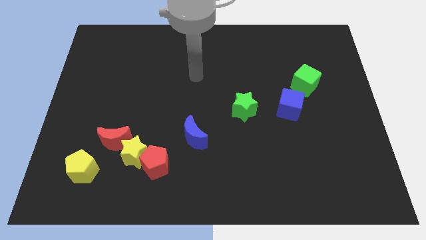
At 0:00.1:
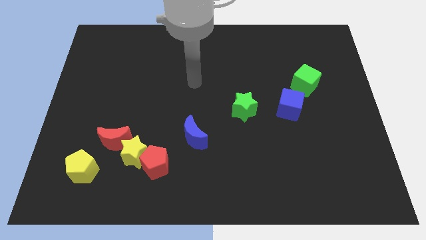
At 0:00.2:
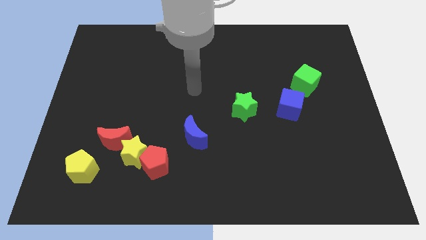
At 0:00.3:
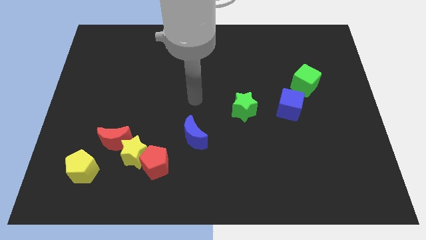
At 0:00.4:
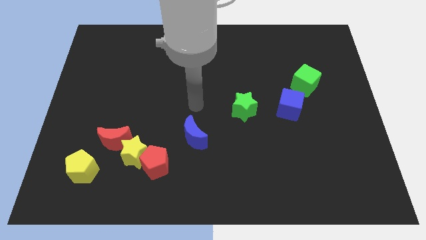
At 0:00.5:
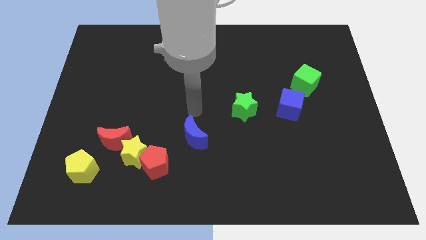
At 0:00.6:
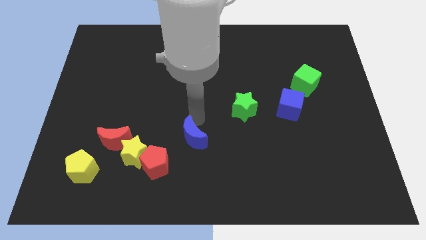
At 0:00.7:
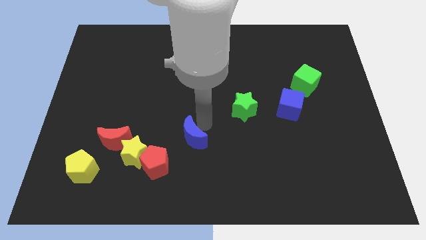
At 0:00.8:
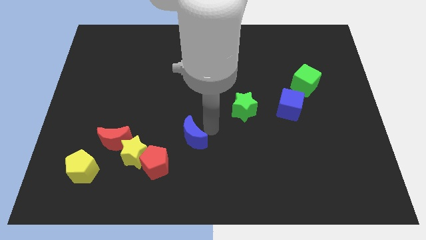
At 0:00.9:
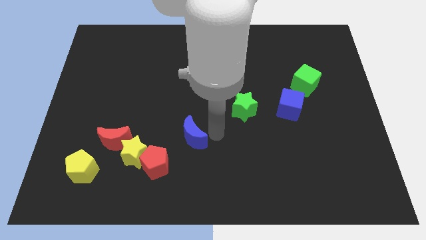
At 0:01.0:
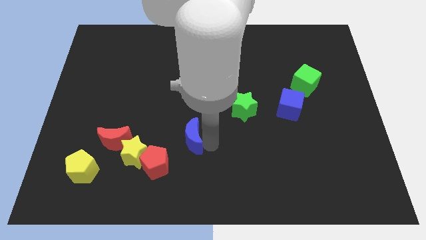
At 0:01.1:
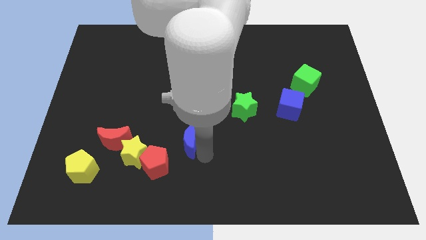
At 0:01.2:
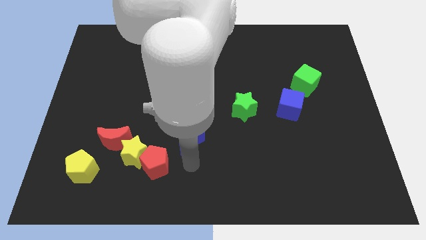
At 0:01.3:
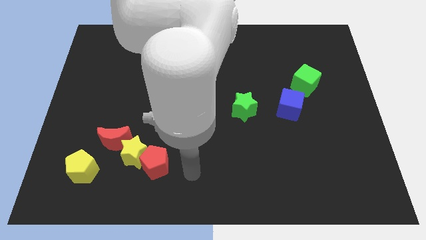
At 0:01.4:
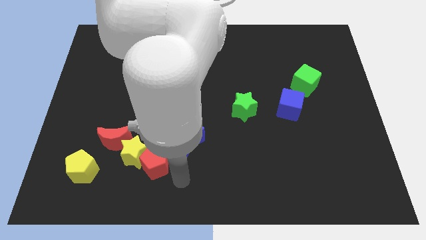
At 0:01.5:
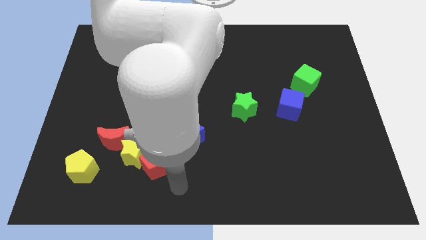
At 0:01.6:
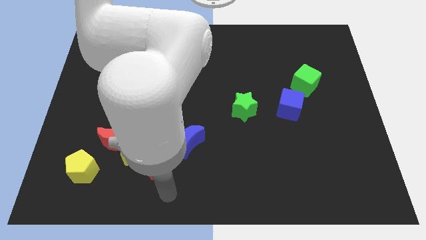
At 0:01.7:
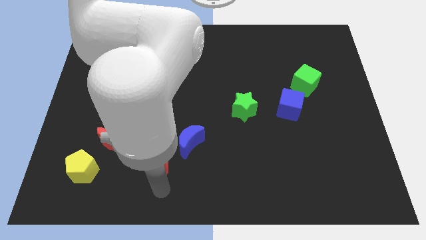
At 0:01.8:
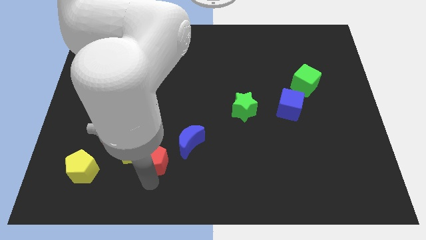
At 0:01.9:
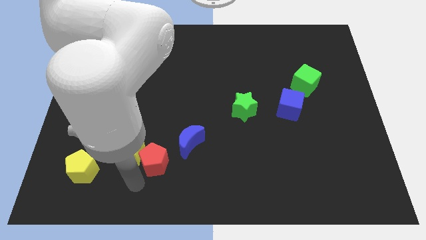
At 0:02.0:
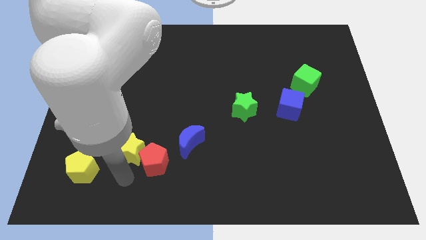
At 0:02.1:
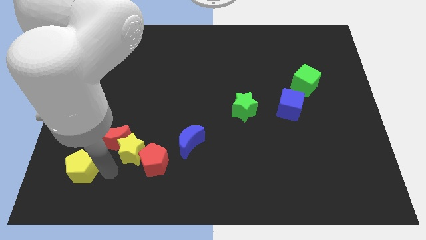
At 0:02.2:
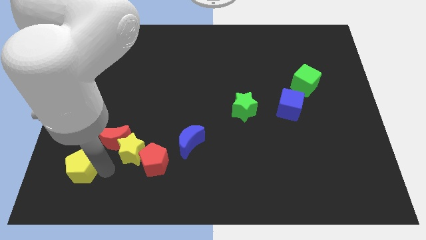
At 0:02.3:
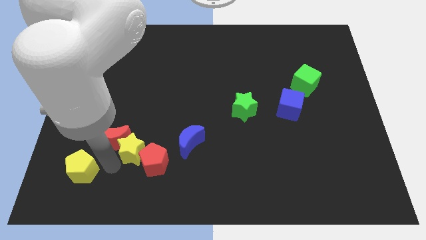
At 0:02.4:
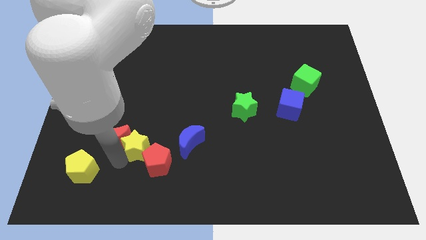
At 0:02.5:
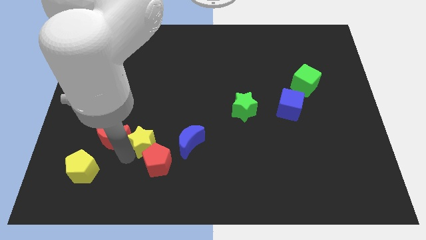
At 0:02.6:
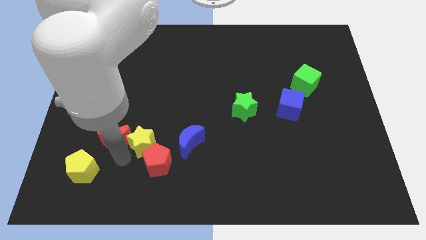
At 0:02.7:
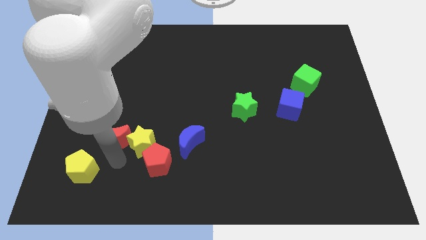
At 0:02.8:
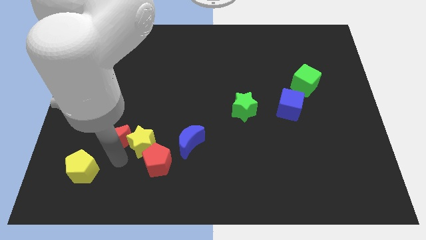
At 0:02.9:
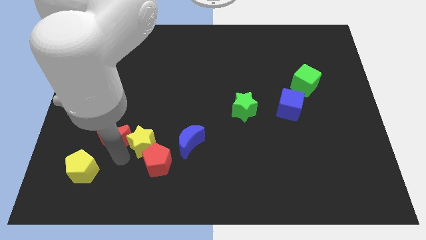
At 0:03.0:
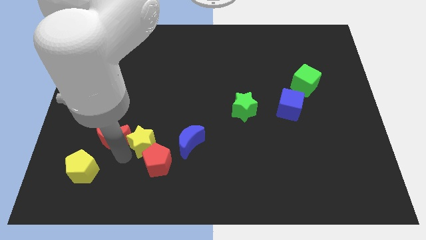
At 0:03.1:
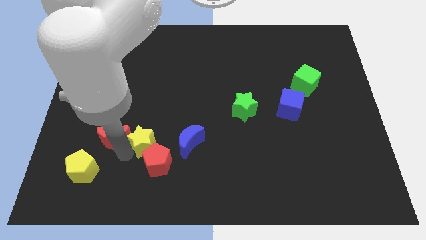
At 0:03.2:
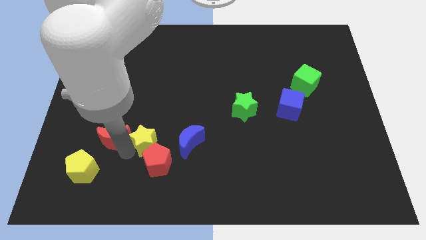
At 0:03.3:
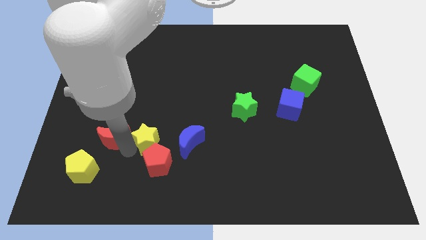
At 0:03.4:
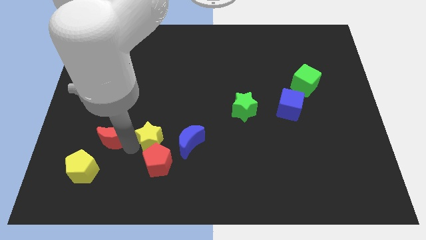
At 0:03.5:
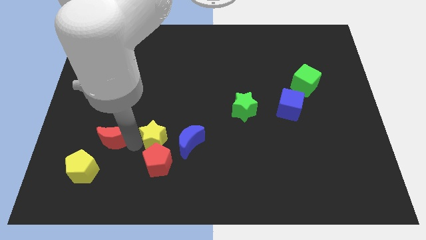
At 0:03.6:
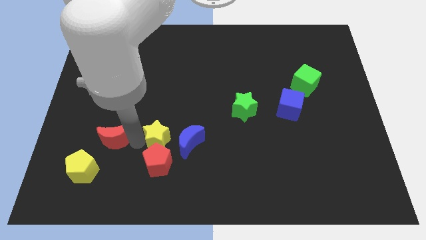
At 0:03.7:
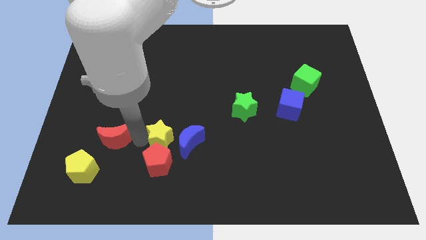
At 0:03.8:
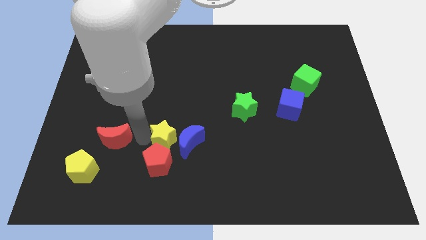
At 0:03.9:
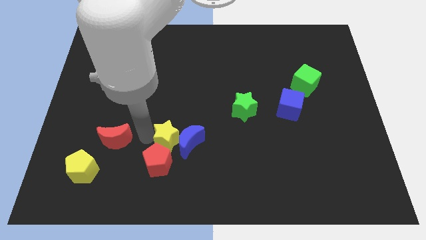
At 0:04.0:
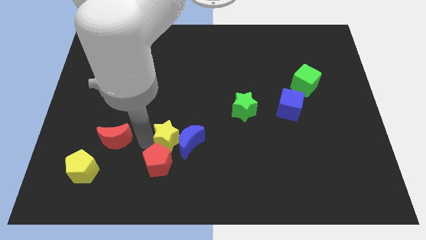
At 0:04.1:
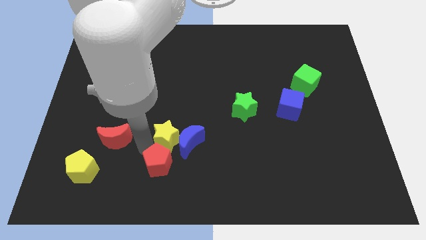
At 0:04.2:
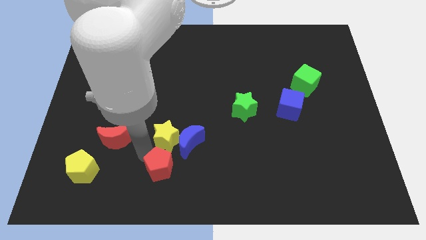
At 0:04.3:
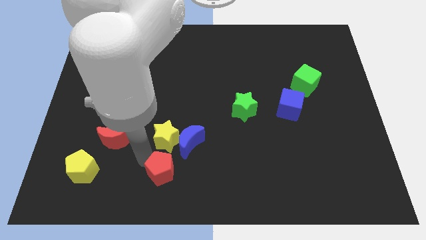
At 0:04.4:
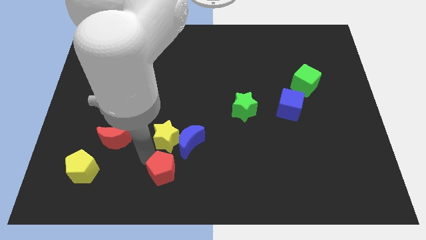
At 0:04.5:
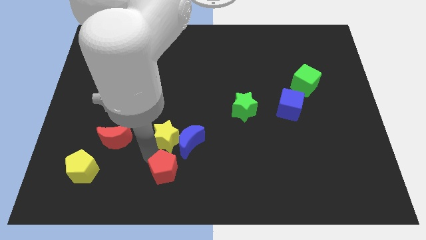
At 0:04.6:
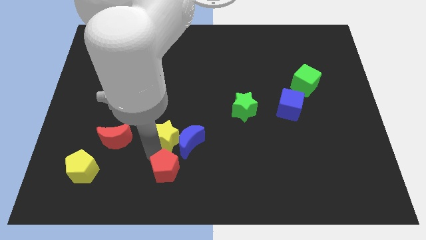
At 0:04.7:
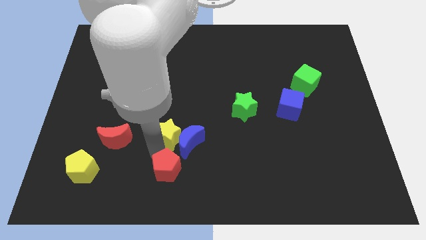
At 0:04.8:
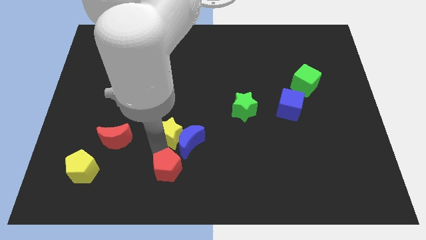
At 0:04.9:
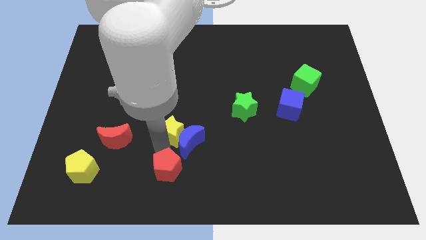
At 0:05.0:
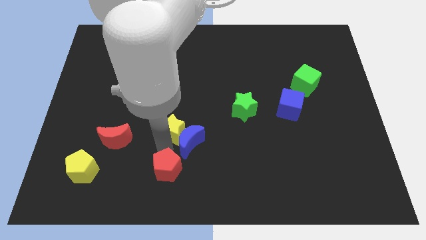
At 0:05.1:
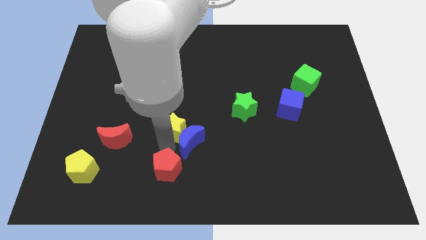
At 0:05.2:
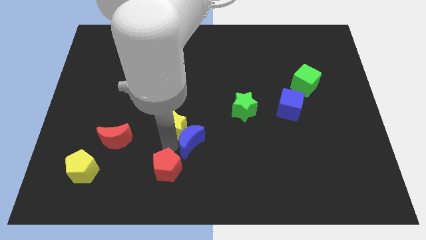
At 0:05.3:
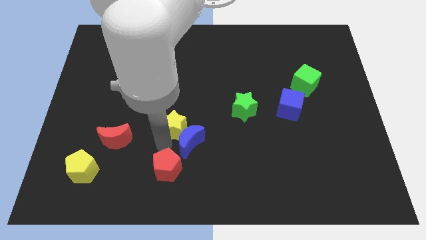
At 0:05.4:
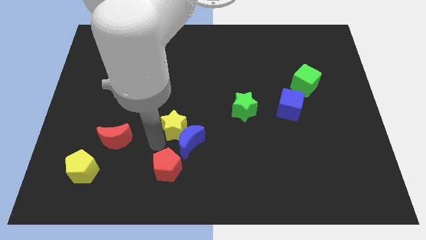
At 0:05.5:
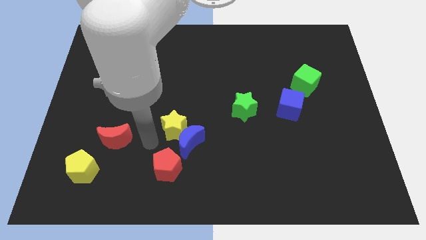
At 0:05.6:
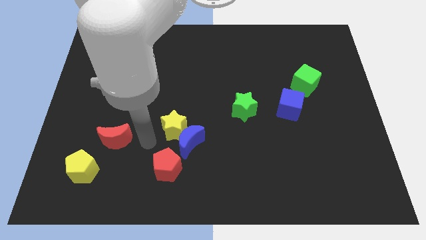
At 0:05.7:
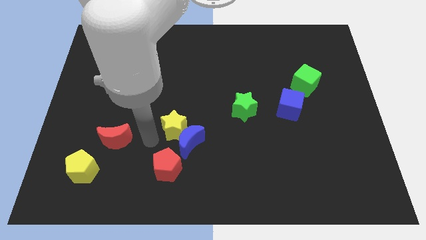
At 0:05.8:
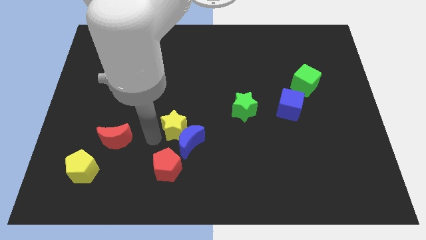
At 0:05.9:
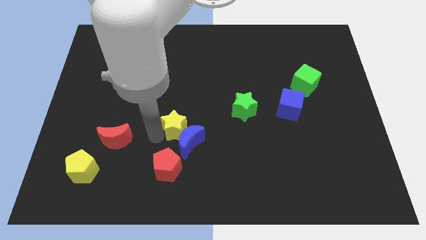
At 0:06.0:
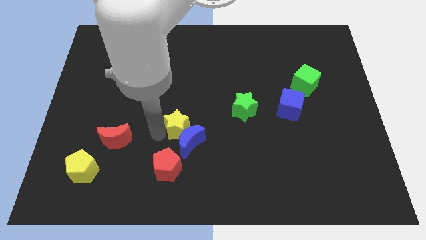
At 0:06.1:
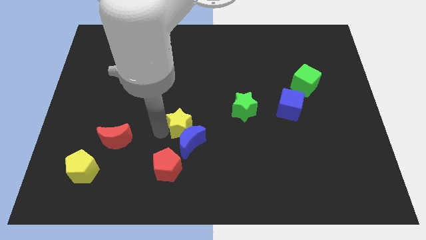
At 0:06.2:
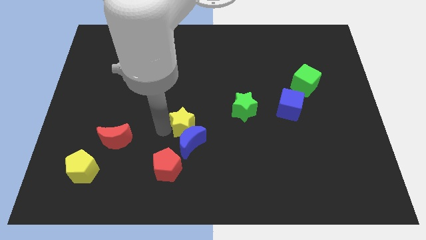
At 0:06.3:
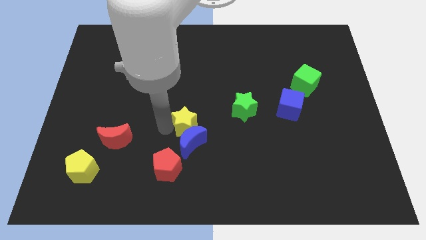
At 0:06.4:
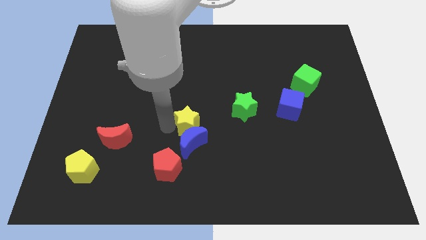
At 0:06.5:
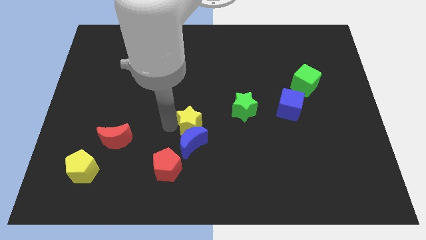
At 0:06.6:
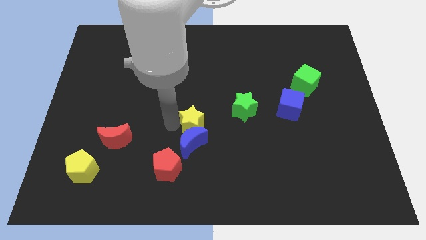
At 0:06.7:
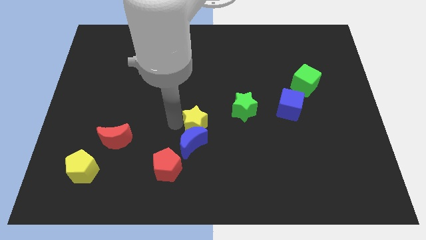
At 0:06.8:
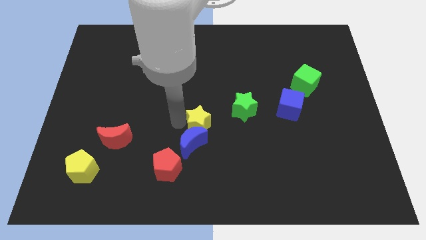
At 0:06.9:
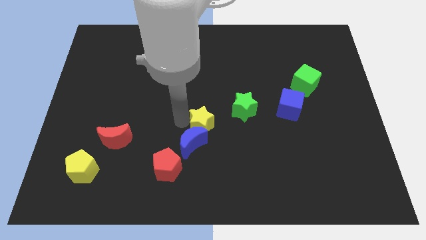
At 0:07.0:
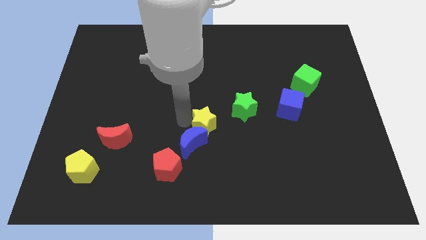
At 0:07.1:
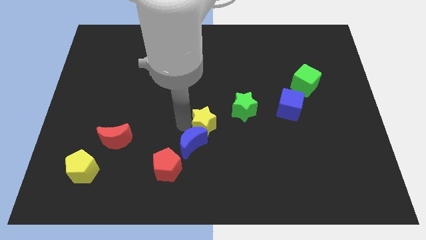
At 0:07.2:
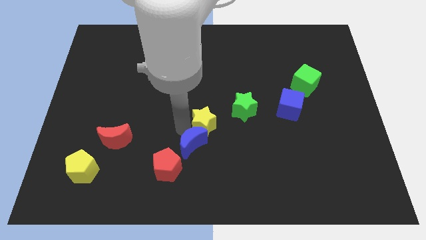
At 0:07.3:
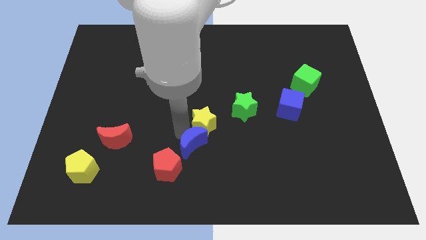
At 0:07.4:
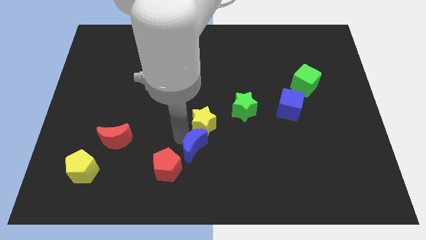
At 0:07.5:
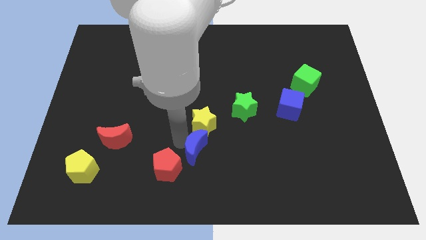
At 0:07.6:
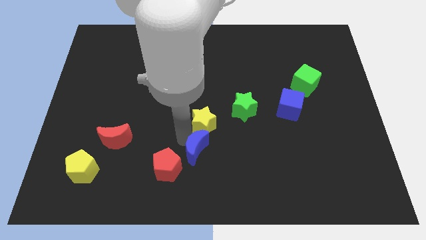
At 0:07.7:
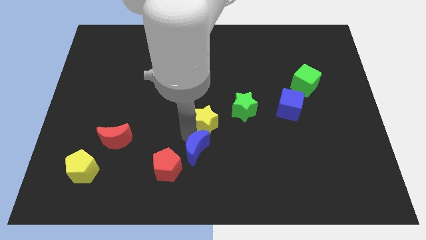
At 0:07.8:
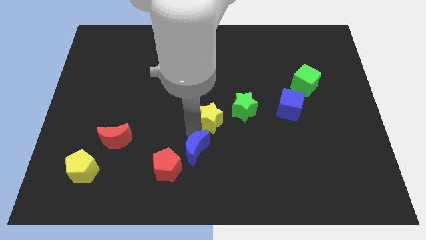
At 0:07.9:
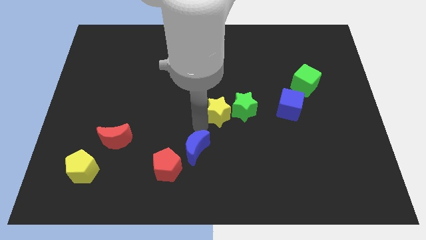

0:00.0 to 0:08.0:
slide the yellow star close to the green star
